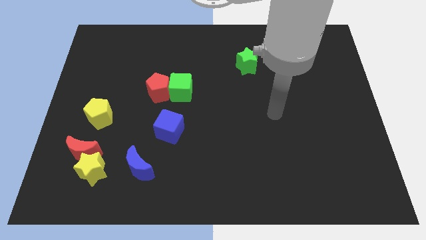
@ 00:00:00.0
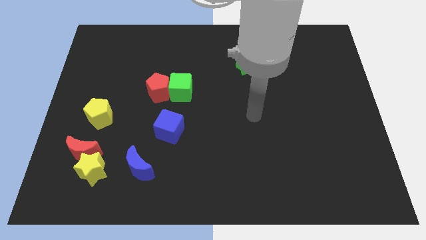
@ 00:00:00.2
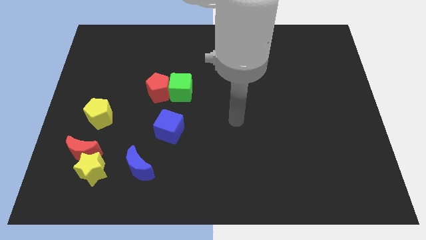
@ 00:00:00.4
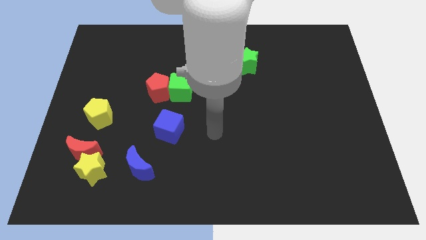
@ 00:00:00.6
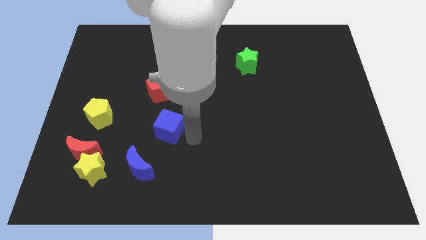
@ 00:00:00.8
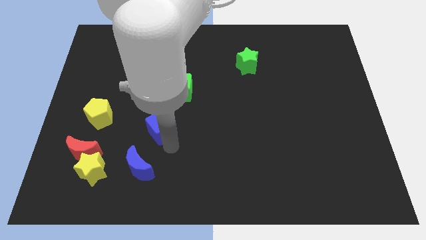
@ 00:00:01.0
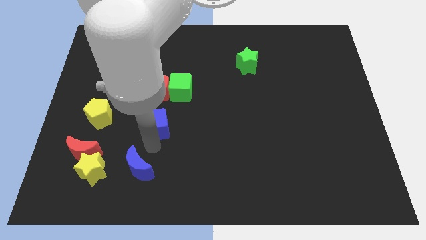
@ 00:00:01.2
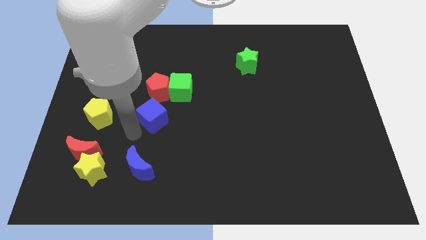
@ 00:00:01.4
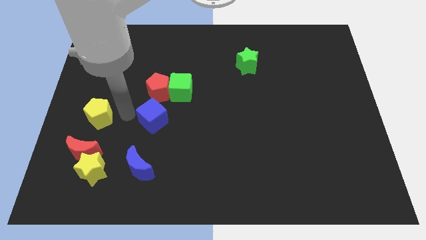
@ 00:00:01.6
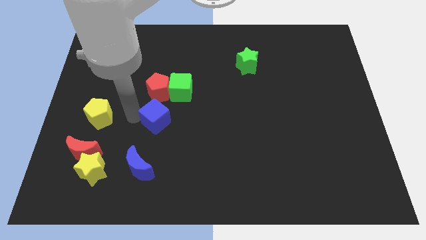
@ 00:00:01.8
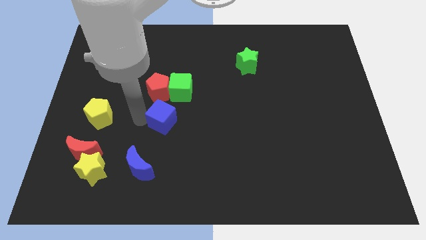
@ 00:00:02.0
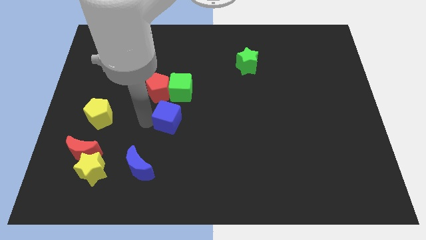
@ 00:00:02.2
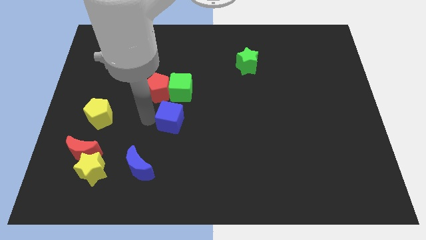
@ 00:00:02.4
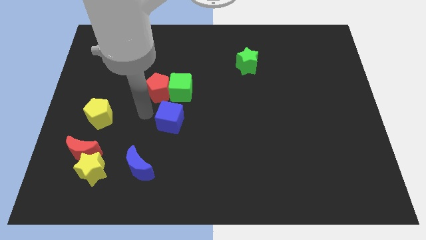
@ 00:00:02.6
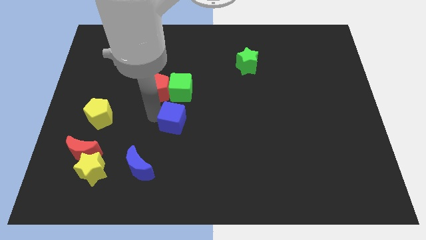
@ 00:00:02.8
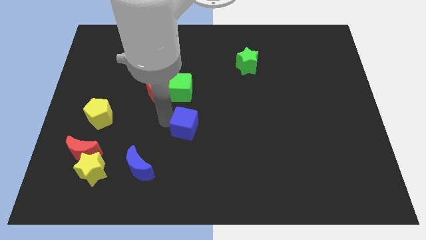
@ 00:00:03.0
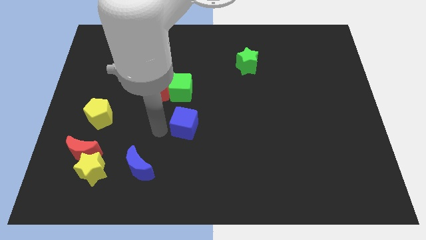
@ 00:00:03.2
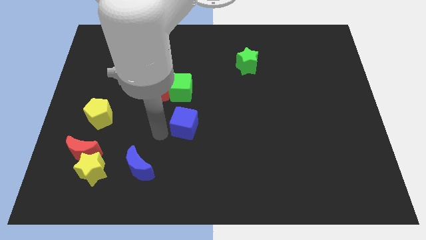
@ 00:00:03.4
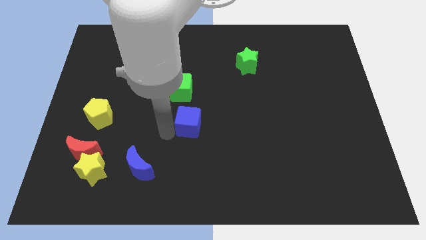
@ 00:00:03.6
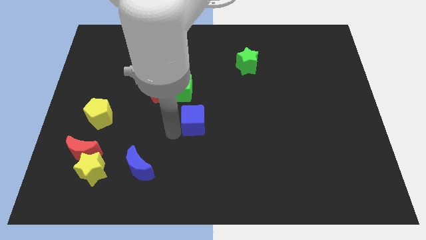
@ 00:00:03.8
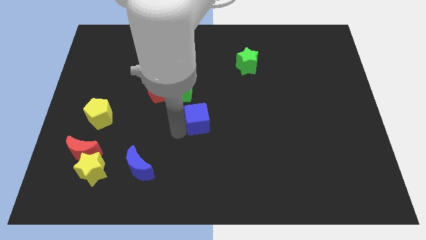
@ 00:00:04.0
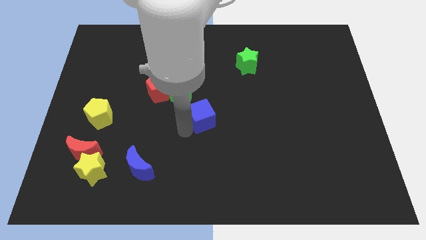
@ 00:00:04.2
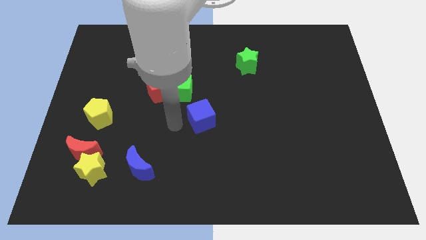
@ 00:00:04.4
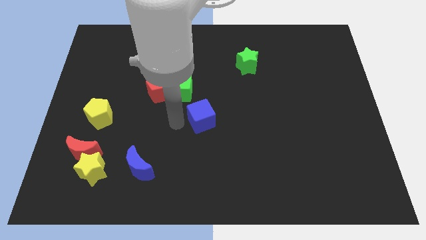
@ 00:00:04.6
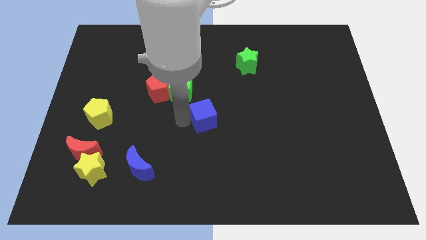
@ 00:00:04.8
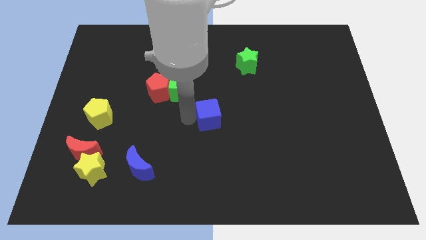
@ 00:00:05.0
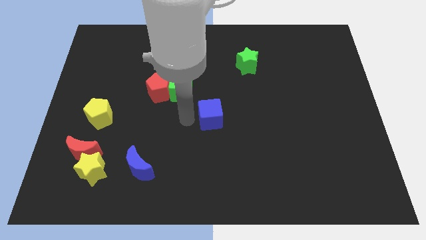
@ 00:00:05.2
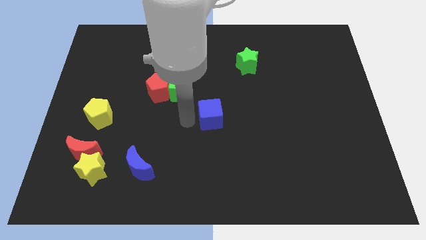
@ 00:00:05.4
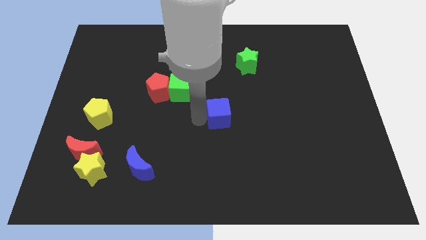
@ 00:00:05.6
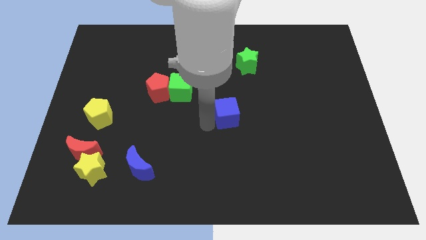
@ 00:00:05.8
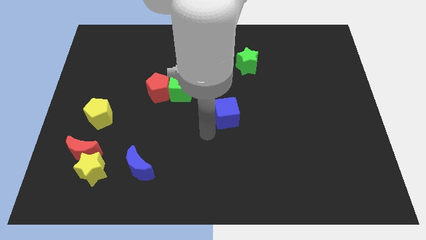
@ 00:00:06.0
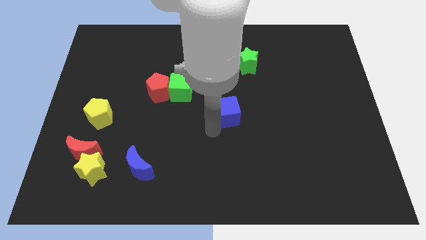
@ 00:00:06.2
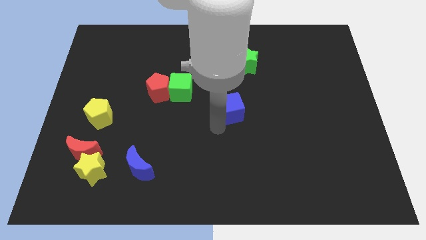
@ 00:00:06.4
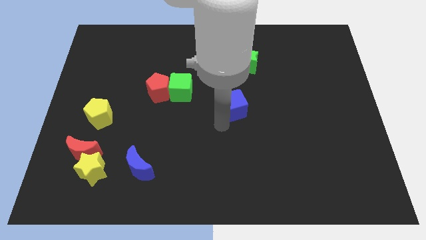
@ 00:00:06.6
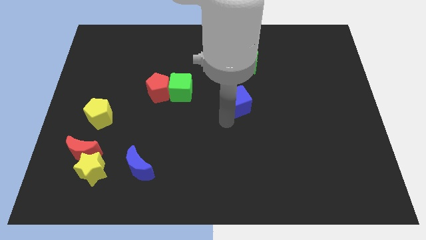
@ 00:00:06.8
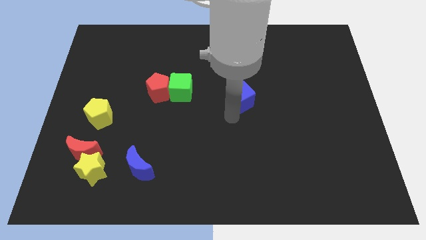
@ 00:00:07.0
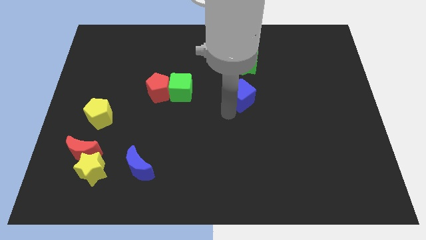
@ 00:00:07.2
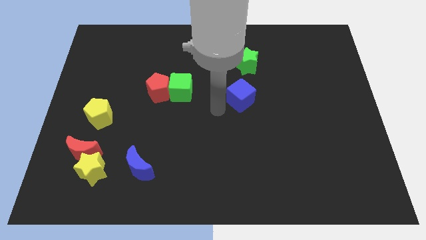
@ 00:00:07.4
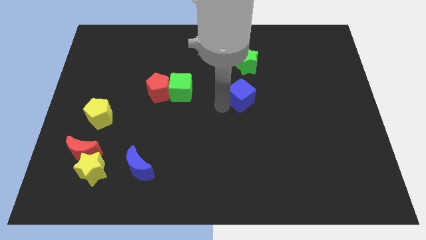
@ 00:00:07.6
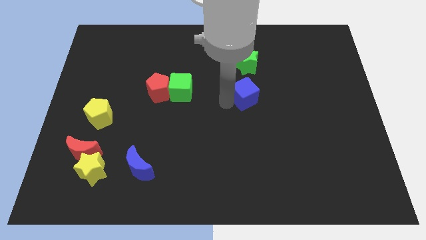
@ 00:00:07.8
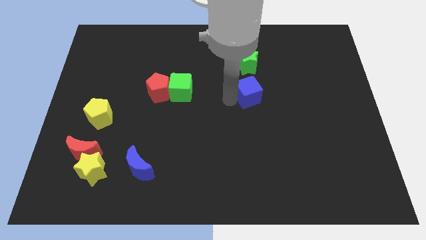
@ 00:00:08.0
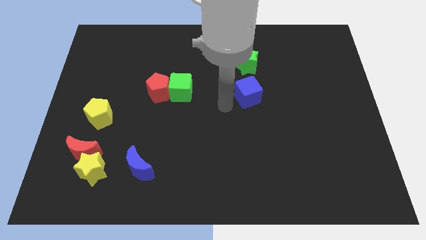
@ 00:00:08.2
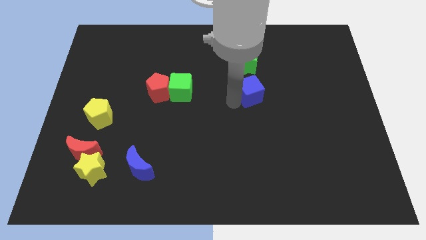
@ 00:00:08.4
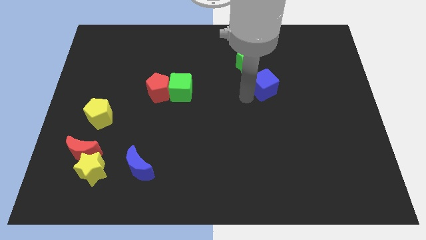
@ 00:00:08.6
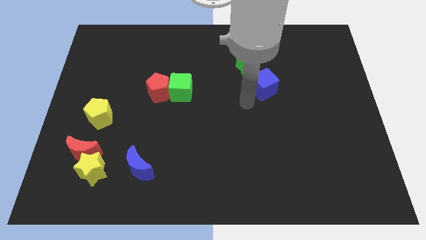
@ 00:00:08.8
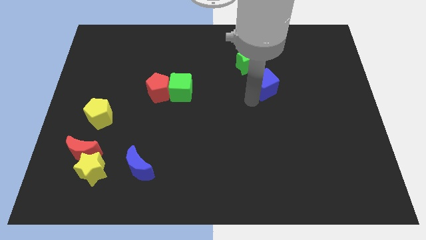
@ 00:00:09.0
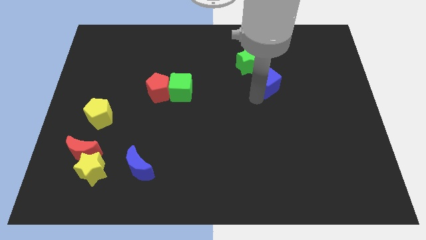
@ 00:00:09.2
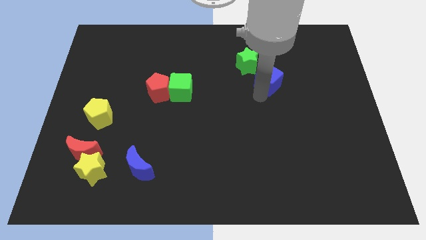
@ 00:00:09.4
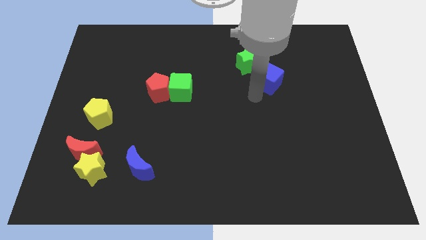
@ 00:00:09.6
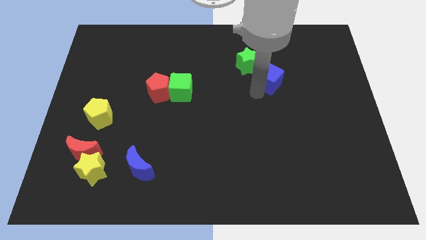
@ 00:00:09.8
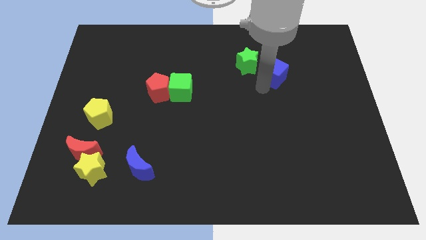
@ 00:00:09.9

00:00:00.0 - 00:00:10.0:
put the blue cube to the right side of the green star

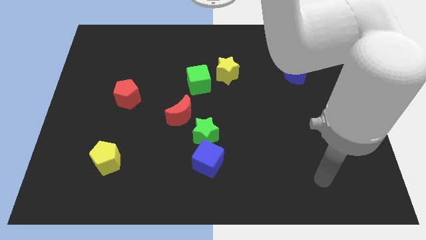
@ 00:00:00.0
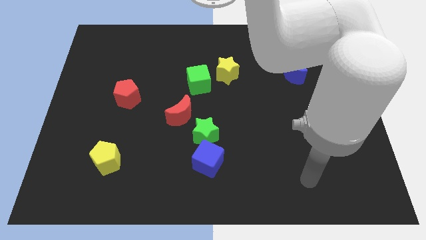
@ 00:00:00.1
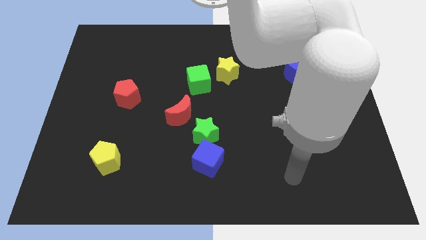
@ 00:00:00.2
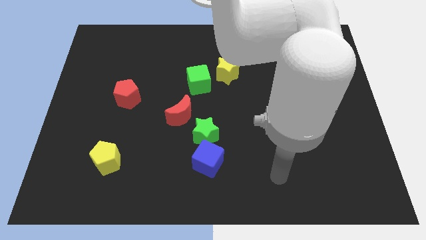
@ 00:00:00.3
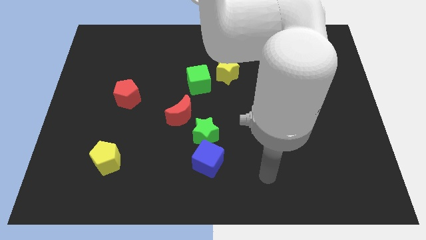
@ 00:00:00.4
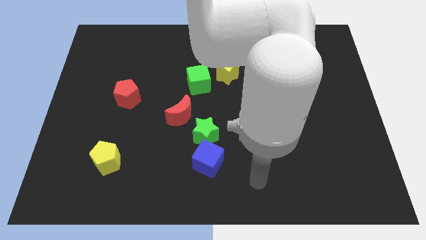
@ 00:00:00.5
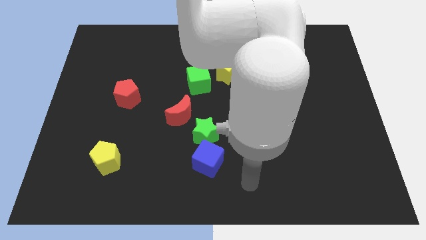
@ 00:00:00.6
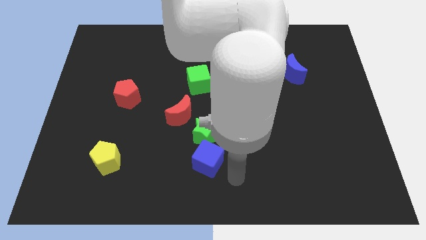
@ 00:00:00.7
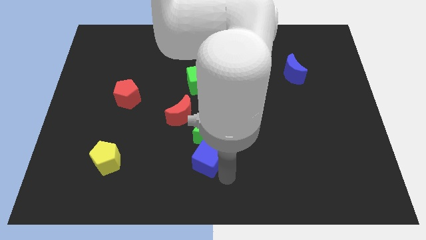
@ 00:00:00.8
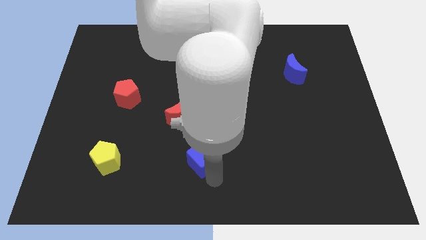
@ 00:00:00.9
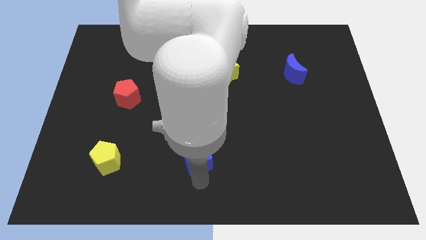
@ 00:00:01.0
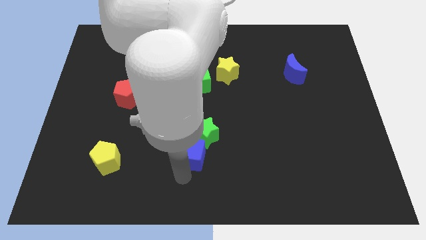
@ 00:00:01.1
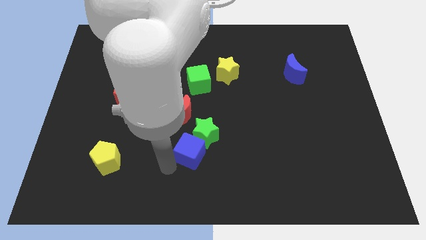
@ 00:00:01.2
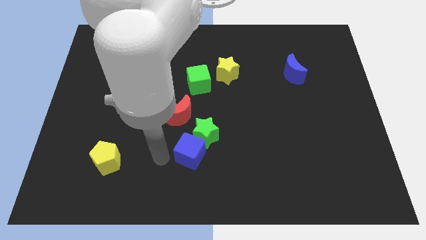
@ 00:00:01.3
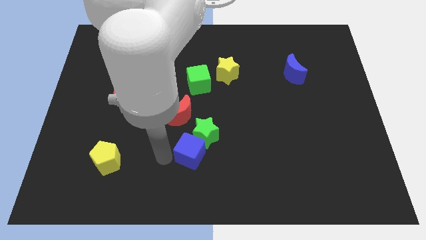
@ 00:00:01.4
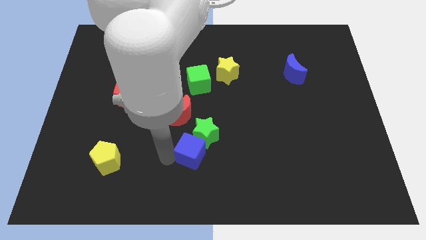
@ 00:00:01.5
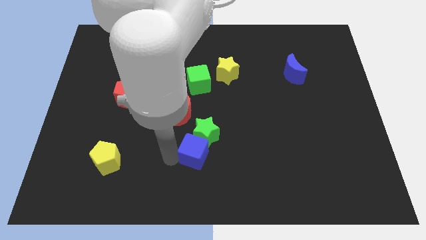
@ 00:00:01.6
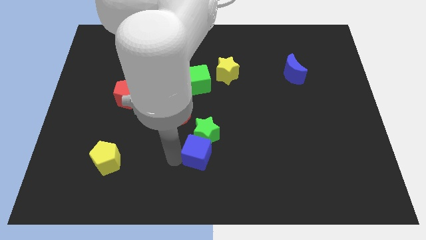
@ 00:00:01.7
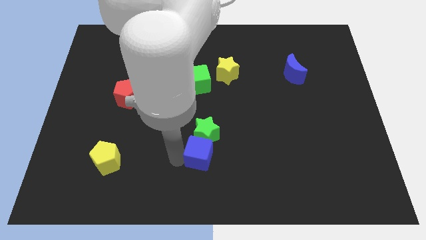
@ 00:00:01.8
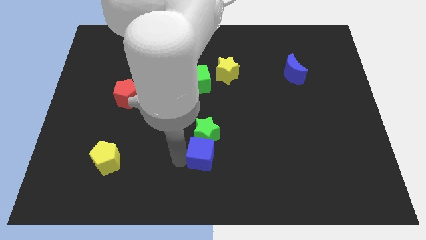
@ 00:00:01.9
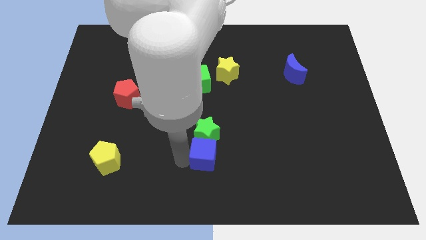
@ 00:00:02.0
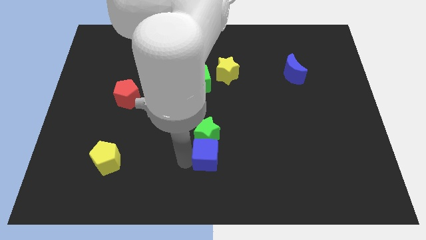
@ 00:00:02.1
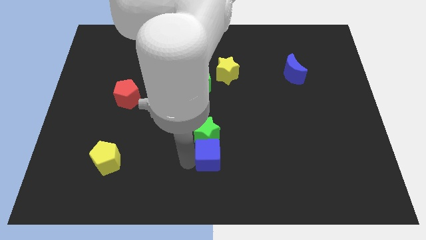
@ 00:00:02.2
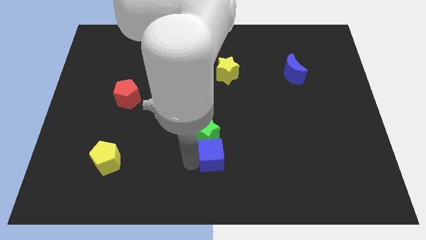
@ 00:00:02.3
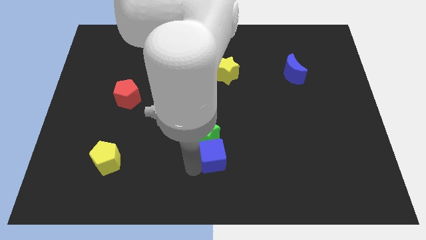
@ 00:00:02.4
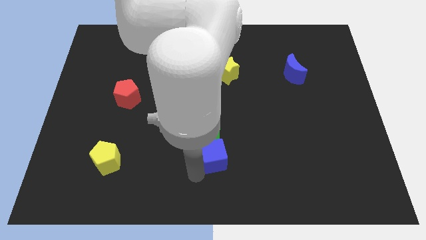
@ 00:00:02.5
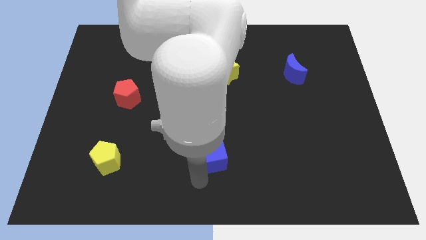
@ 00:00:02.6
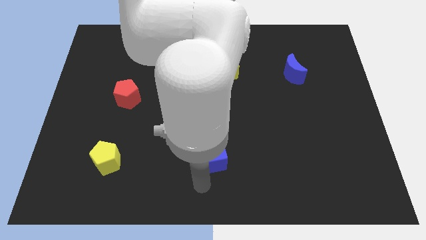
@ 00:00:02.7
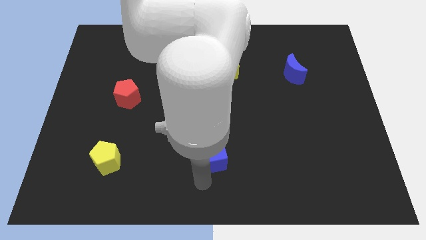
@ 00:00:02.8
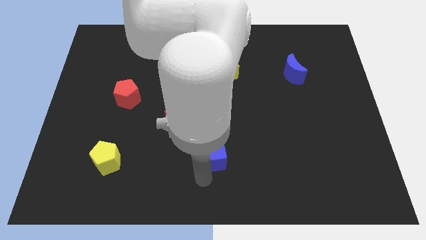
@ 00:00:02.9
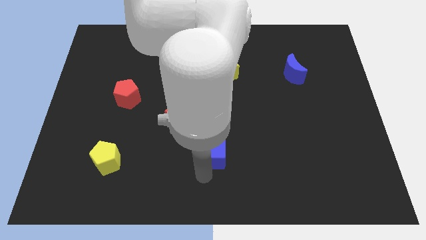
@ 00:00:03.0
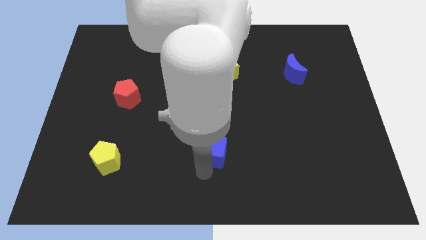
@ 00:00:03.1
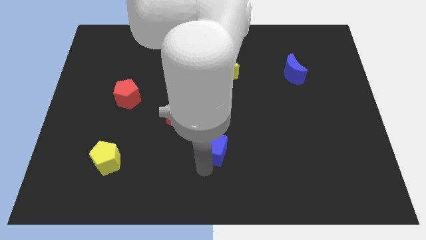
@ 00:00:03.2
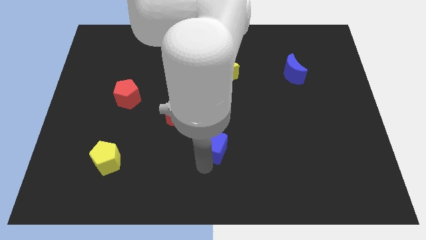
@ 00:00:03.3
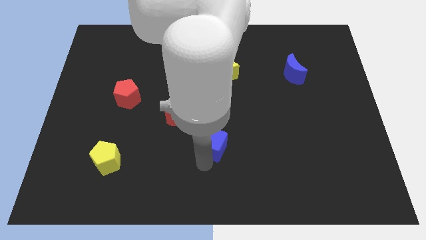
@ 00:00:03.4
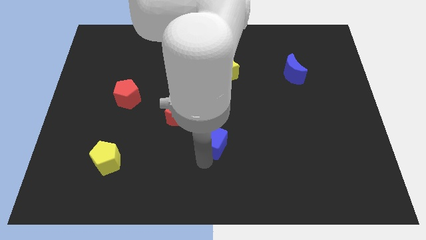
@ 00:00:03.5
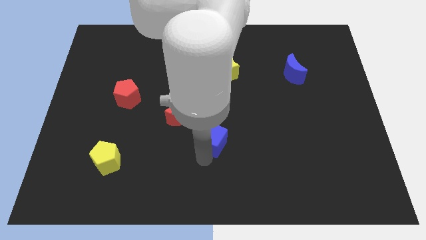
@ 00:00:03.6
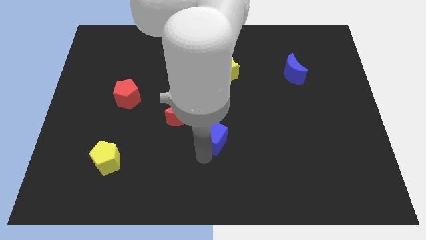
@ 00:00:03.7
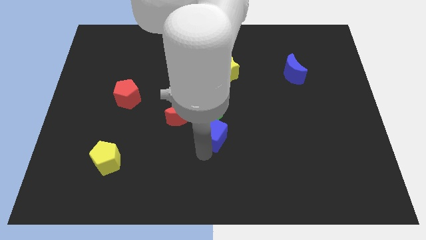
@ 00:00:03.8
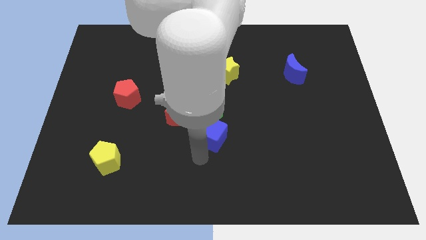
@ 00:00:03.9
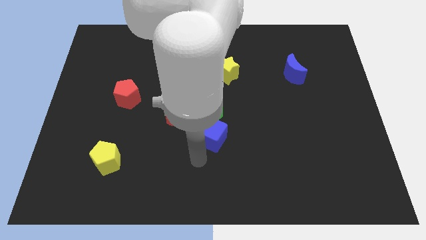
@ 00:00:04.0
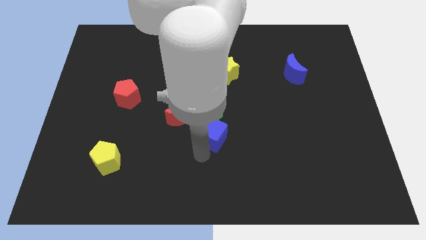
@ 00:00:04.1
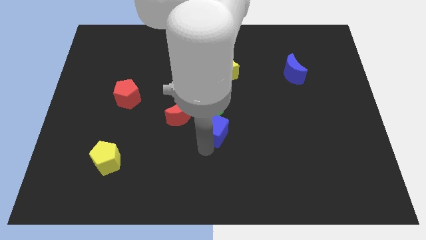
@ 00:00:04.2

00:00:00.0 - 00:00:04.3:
push the blue cube just right of the red moon
